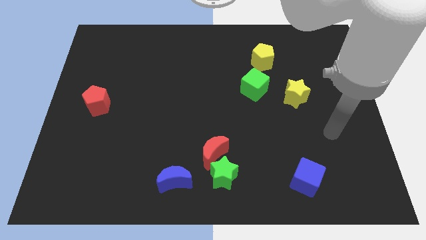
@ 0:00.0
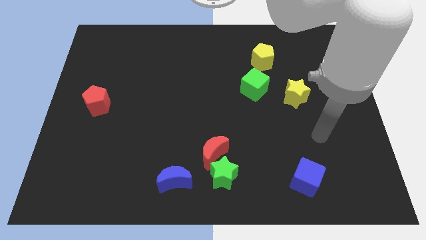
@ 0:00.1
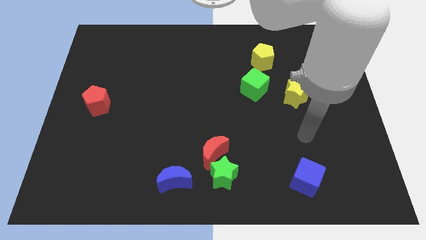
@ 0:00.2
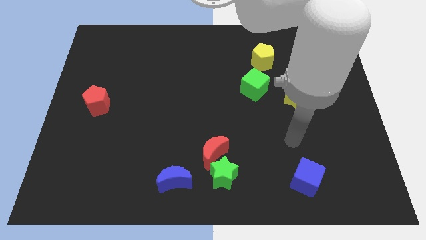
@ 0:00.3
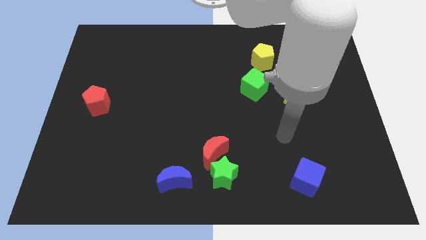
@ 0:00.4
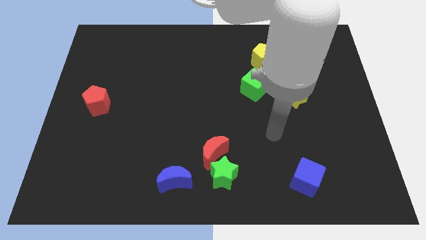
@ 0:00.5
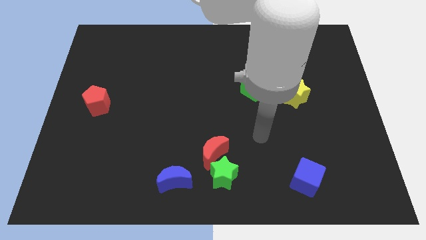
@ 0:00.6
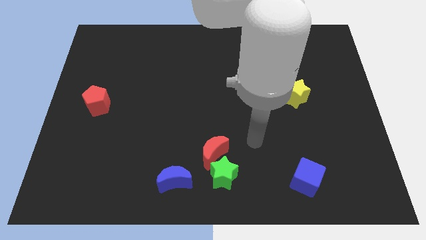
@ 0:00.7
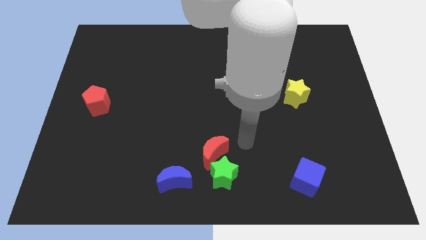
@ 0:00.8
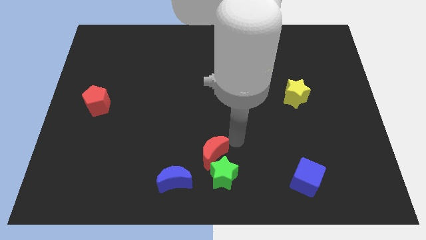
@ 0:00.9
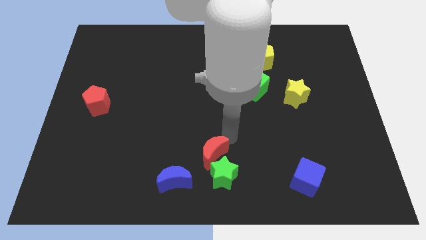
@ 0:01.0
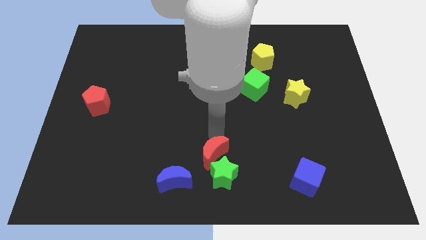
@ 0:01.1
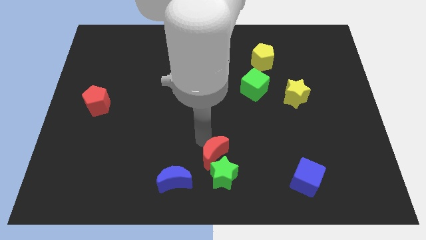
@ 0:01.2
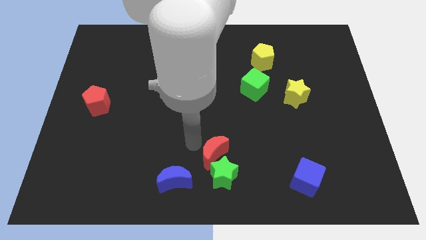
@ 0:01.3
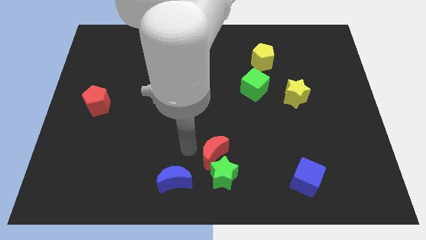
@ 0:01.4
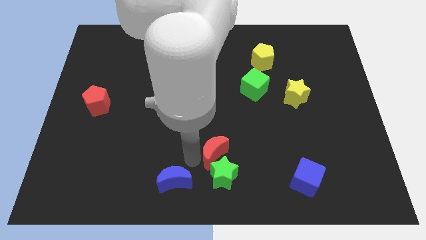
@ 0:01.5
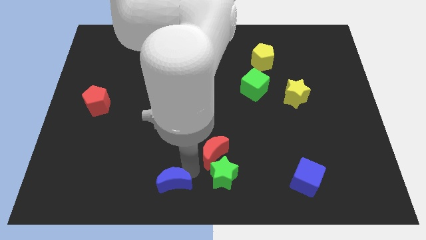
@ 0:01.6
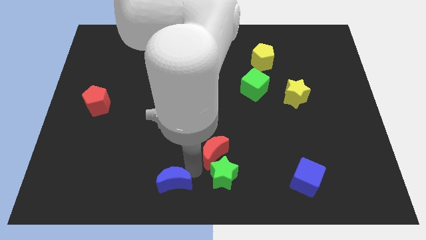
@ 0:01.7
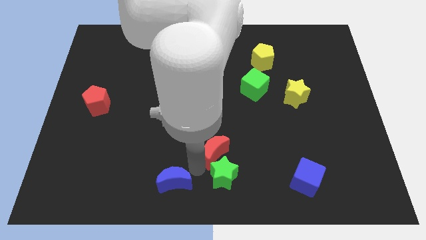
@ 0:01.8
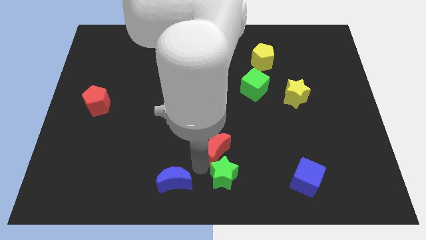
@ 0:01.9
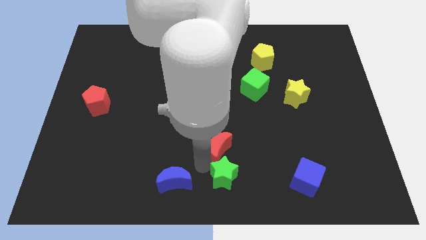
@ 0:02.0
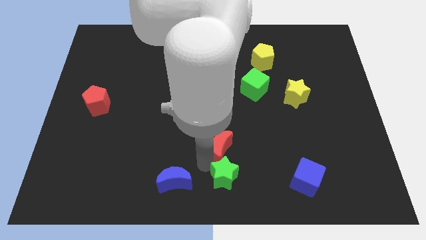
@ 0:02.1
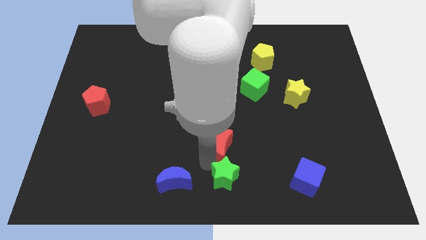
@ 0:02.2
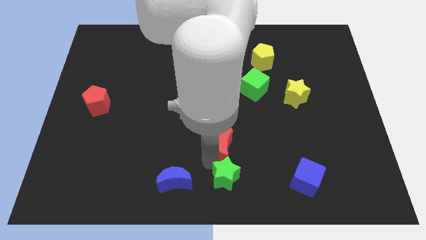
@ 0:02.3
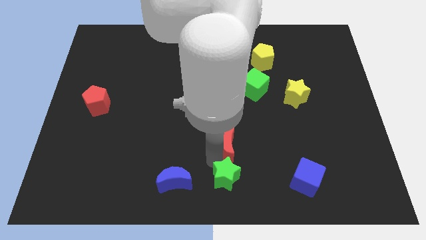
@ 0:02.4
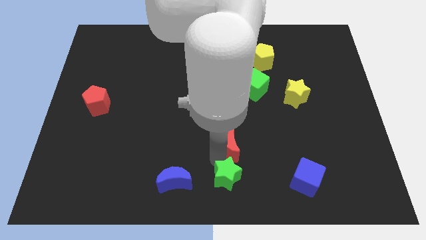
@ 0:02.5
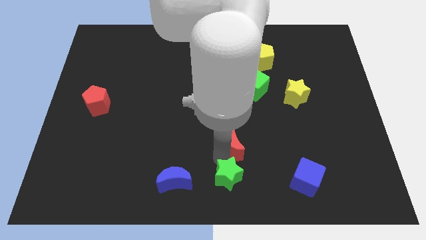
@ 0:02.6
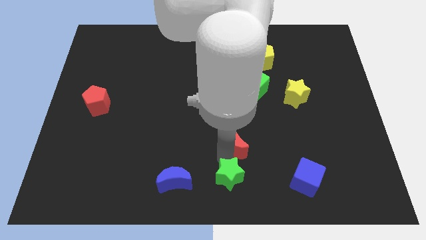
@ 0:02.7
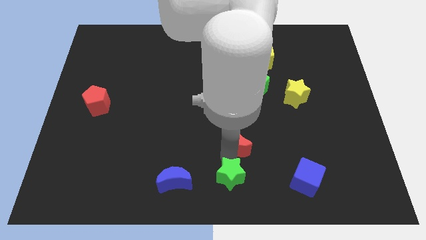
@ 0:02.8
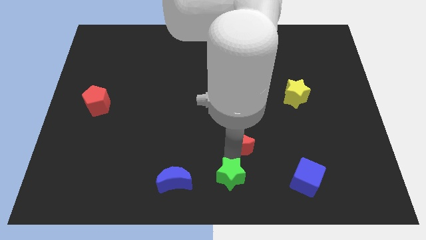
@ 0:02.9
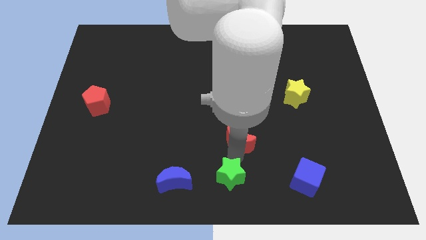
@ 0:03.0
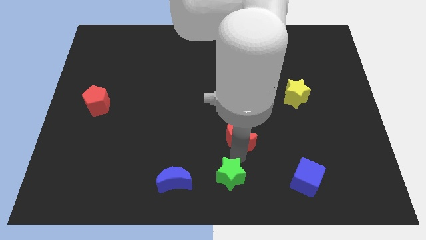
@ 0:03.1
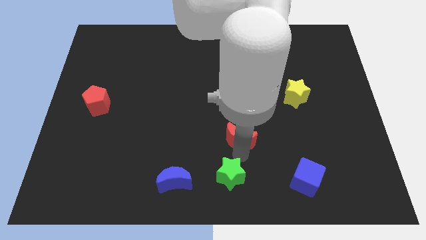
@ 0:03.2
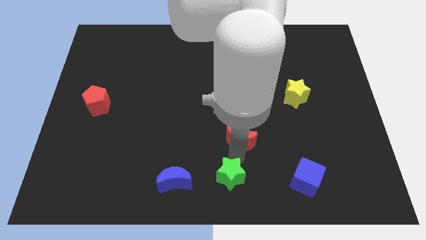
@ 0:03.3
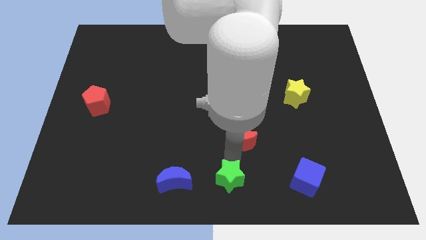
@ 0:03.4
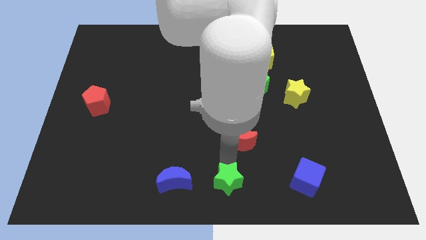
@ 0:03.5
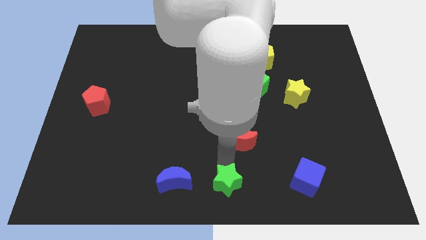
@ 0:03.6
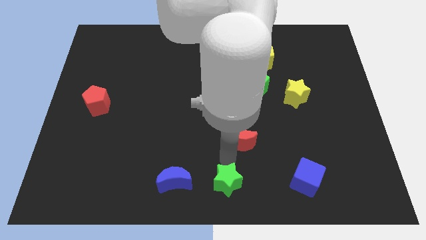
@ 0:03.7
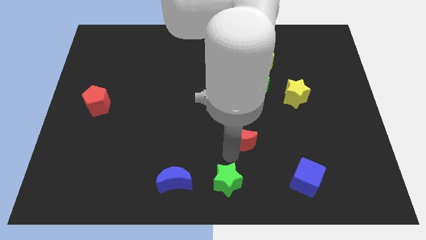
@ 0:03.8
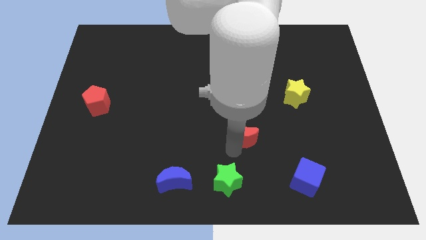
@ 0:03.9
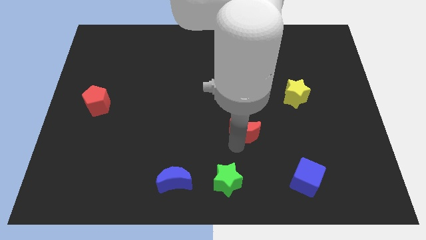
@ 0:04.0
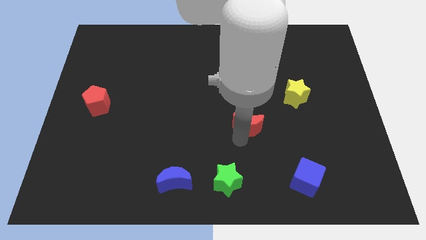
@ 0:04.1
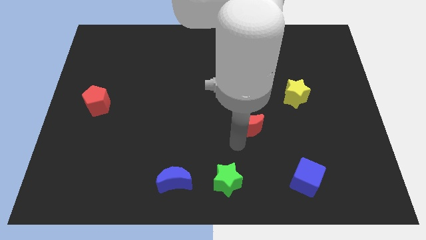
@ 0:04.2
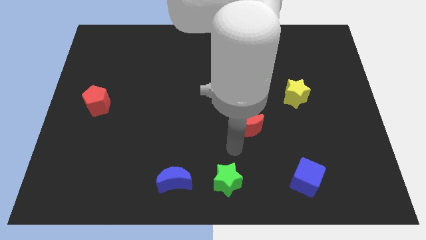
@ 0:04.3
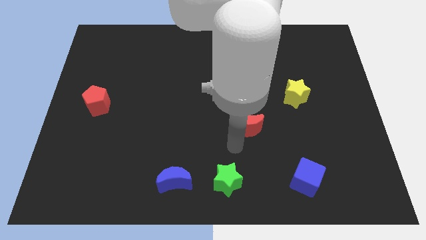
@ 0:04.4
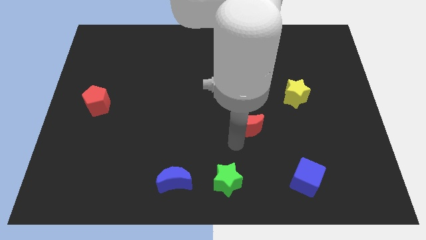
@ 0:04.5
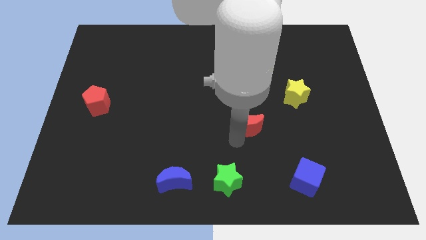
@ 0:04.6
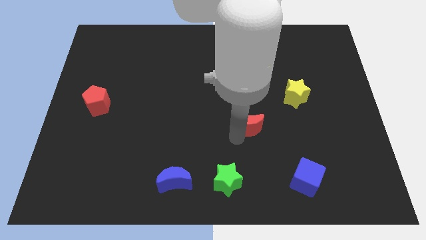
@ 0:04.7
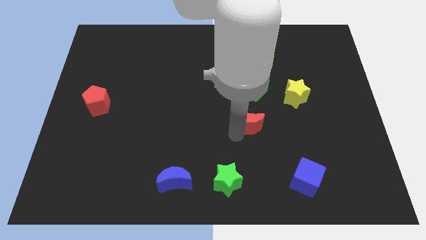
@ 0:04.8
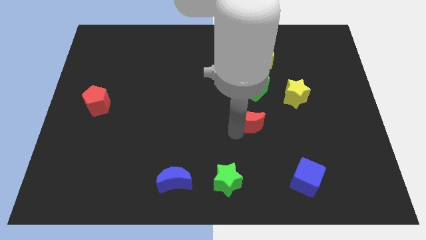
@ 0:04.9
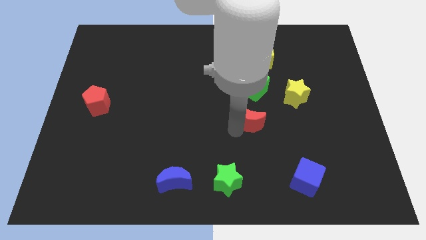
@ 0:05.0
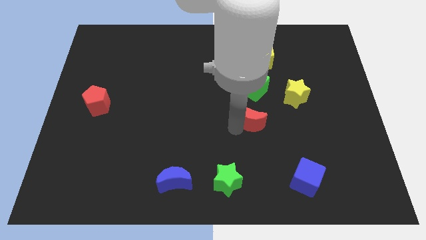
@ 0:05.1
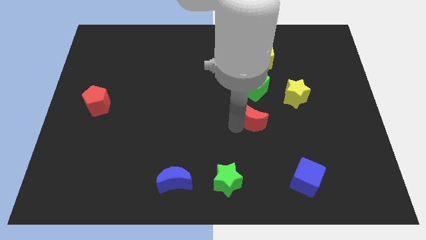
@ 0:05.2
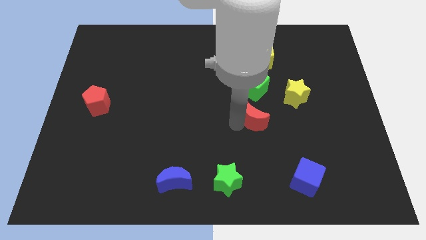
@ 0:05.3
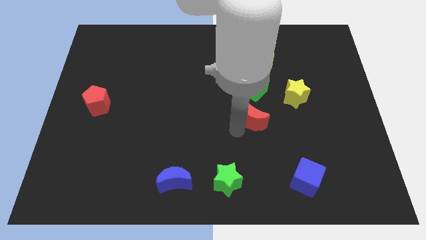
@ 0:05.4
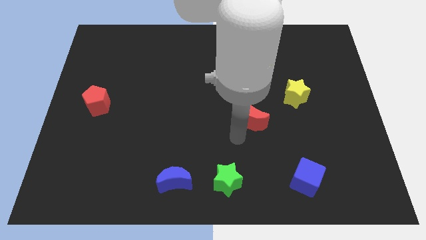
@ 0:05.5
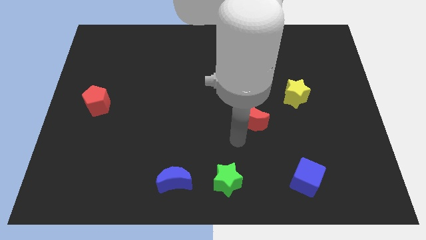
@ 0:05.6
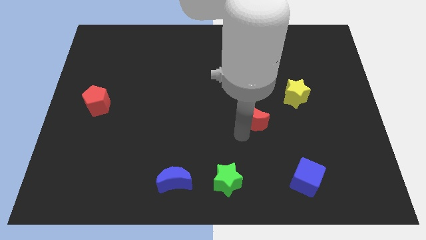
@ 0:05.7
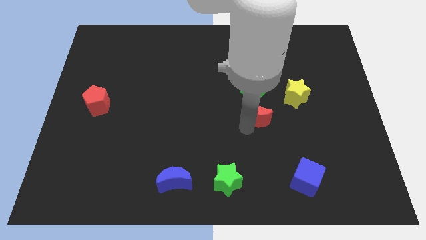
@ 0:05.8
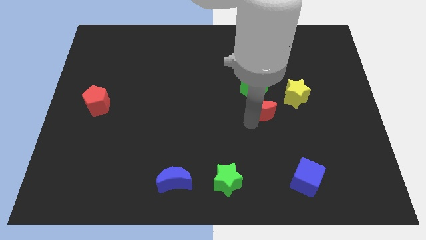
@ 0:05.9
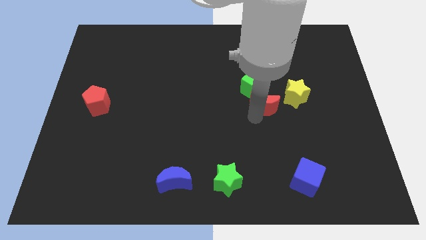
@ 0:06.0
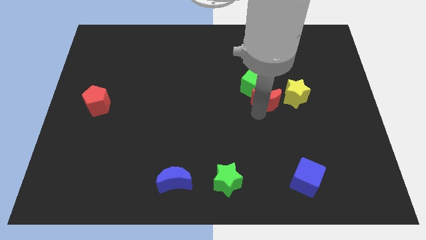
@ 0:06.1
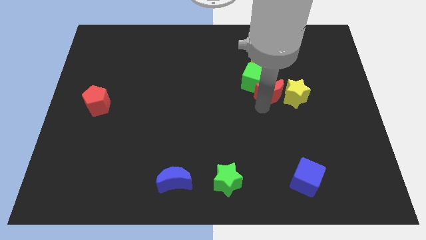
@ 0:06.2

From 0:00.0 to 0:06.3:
slide the red moon upwards and to the right diagonally

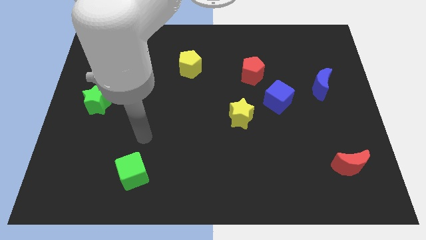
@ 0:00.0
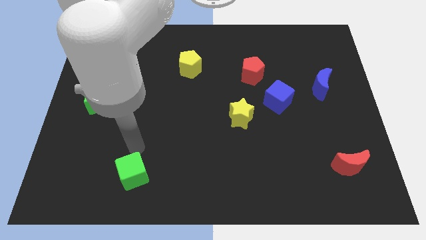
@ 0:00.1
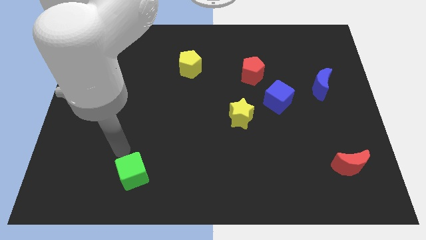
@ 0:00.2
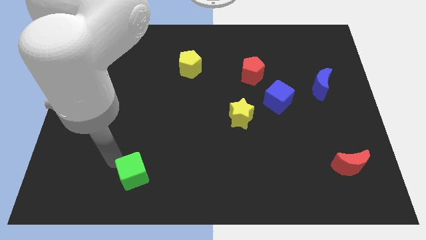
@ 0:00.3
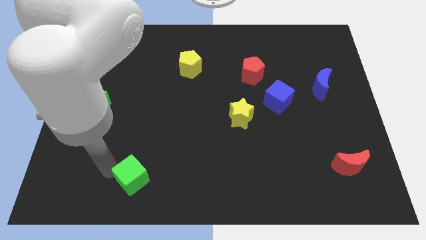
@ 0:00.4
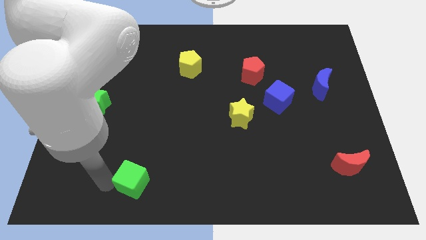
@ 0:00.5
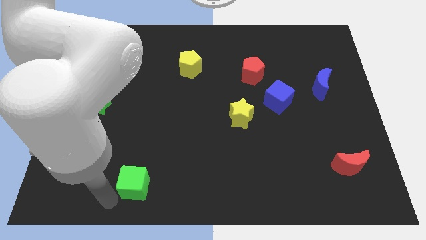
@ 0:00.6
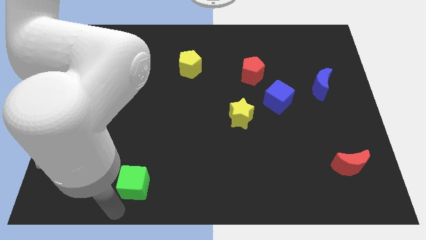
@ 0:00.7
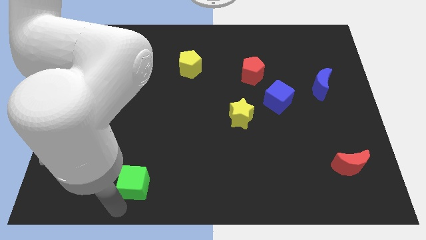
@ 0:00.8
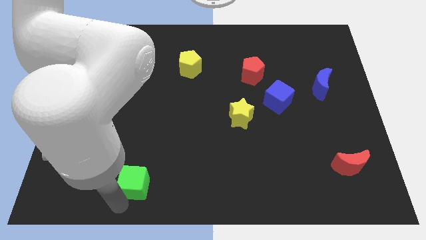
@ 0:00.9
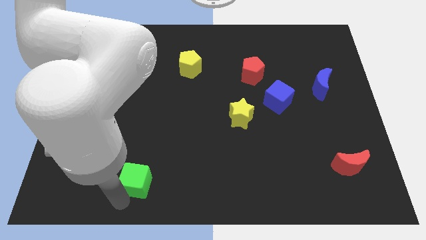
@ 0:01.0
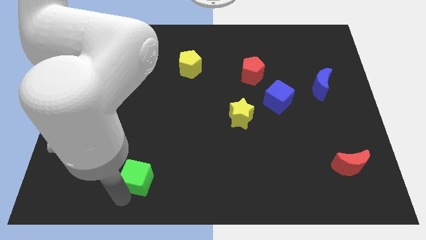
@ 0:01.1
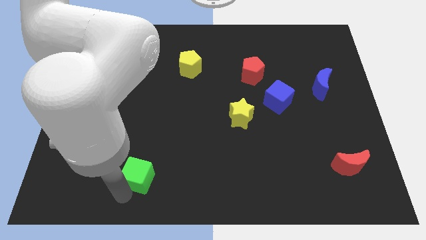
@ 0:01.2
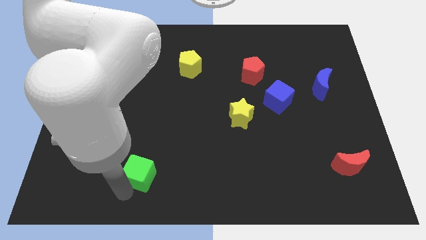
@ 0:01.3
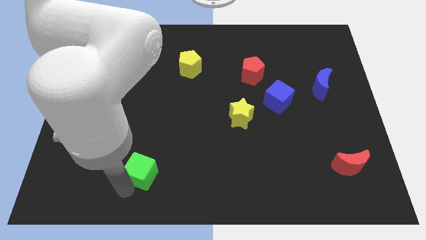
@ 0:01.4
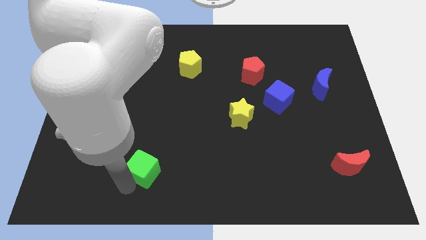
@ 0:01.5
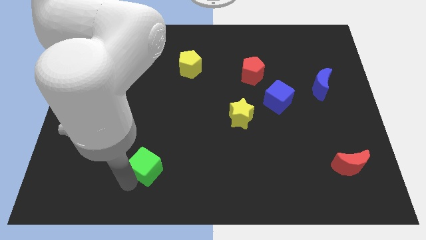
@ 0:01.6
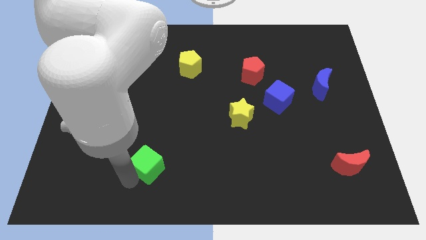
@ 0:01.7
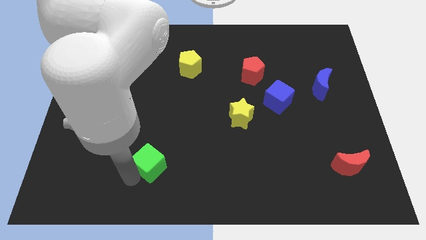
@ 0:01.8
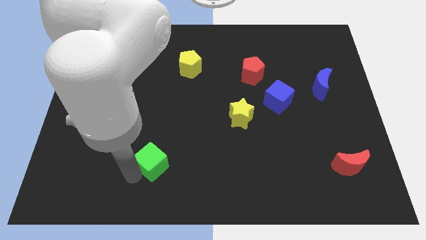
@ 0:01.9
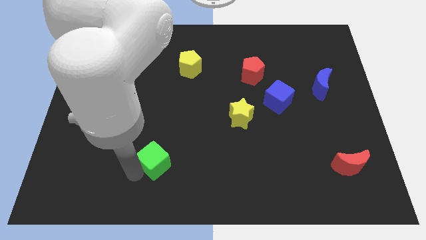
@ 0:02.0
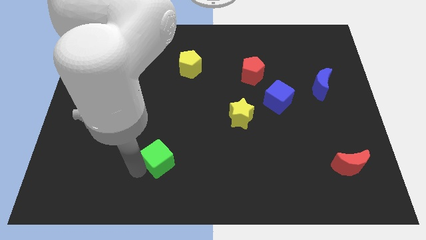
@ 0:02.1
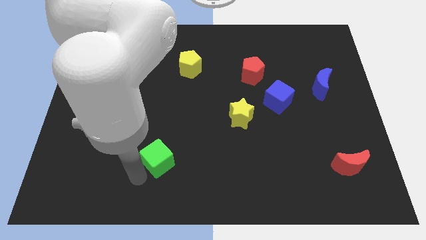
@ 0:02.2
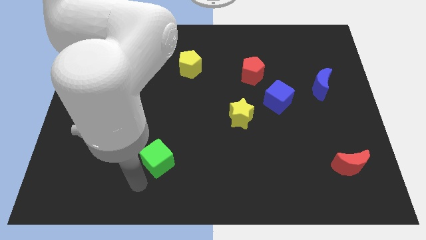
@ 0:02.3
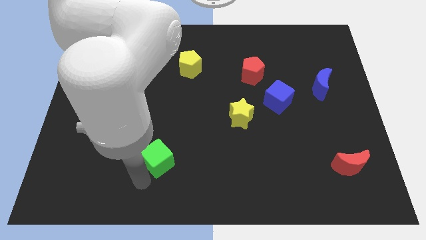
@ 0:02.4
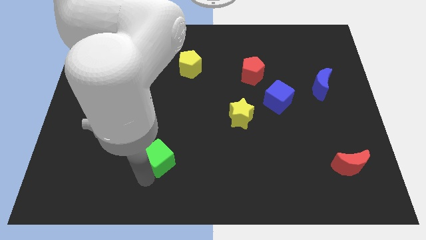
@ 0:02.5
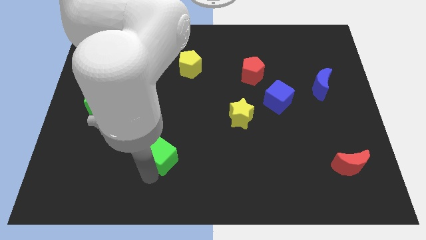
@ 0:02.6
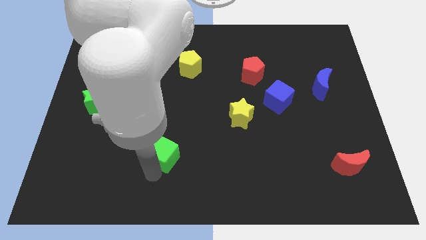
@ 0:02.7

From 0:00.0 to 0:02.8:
slightly move the green cube upwards and to the right
